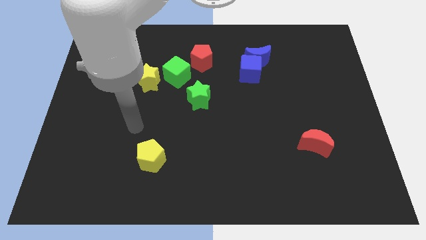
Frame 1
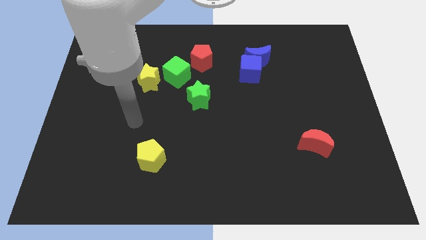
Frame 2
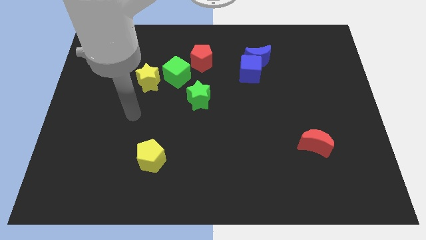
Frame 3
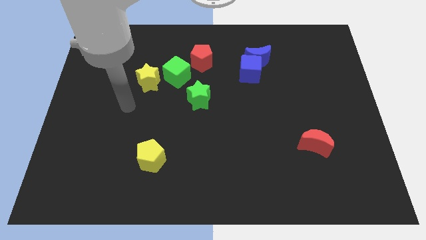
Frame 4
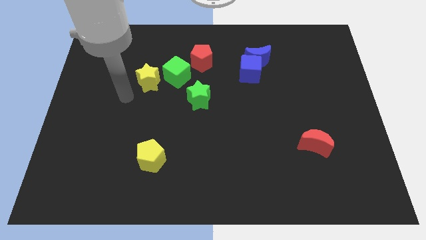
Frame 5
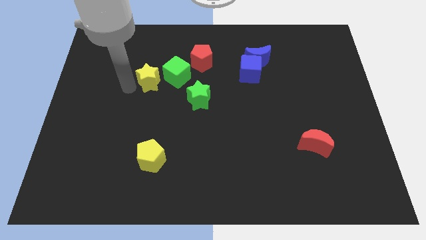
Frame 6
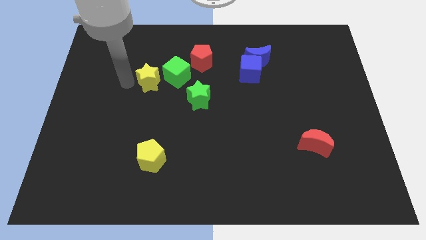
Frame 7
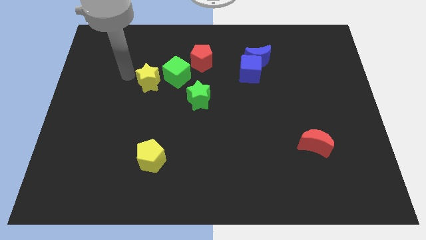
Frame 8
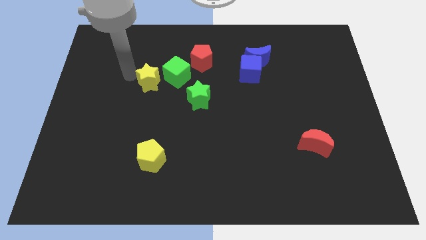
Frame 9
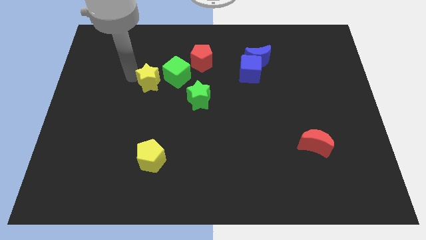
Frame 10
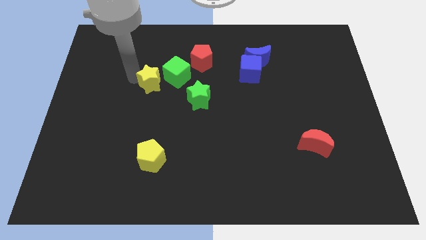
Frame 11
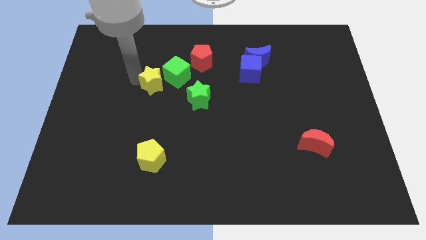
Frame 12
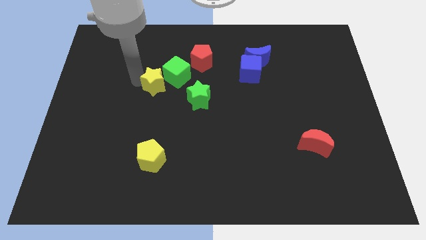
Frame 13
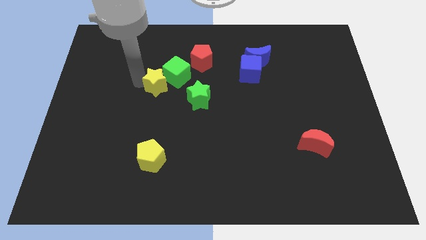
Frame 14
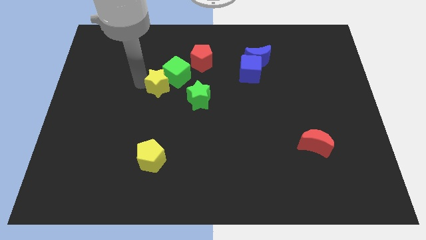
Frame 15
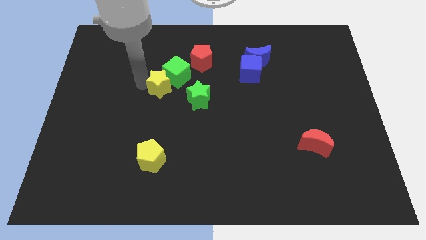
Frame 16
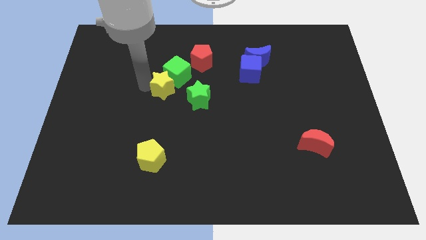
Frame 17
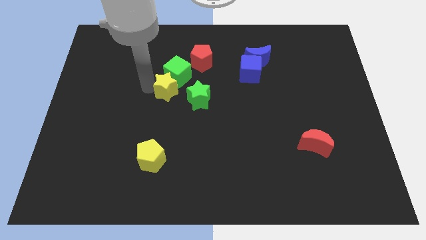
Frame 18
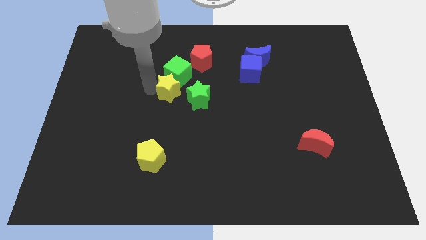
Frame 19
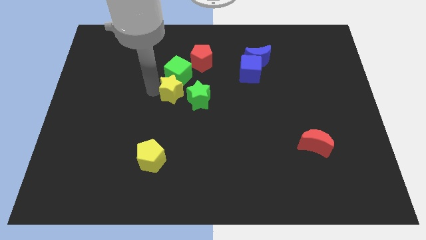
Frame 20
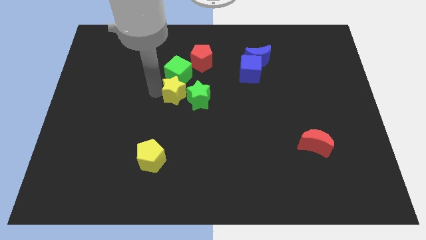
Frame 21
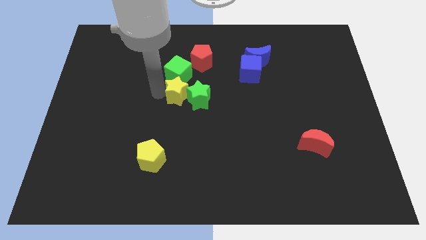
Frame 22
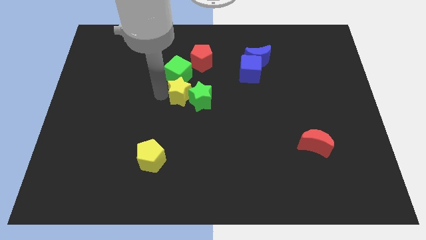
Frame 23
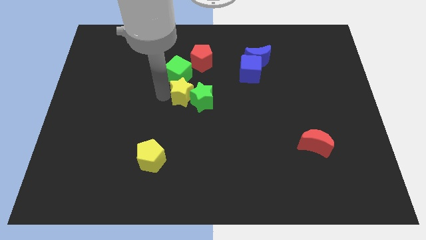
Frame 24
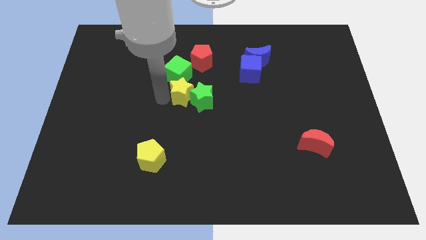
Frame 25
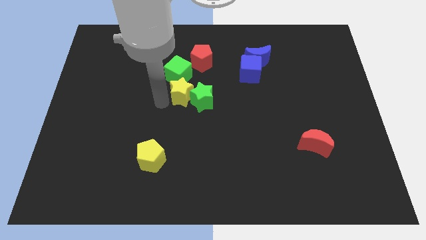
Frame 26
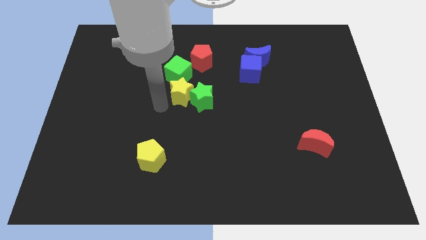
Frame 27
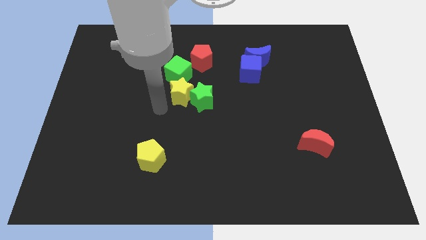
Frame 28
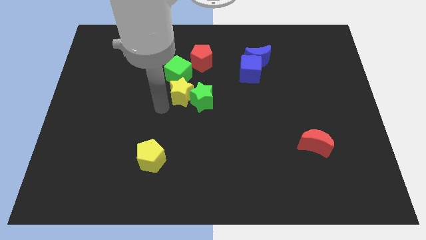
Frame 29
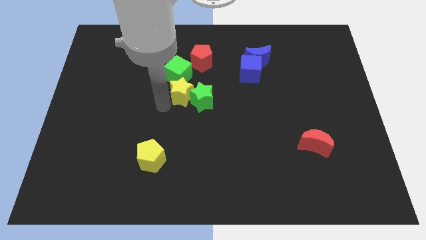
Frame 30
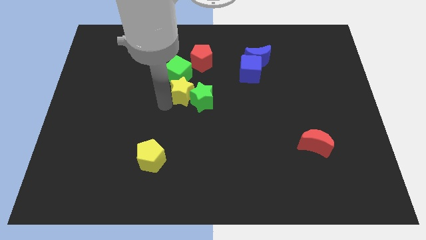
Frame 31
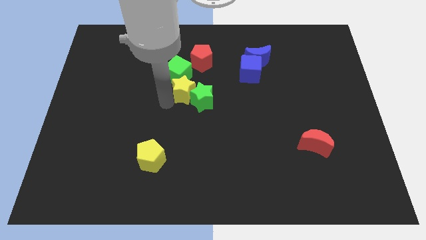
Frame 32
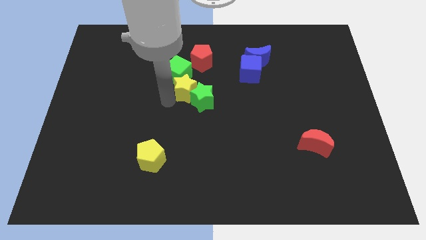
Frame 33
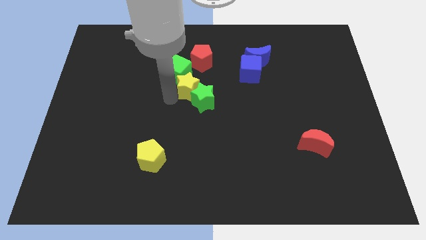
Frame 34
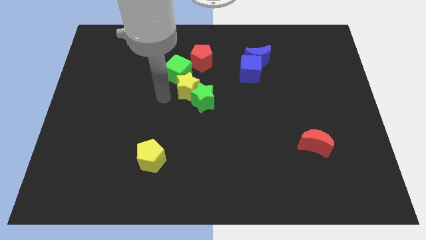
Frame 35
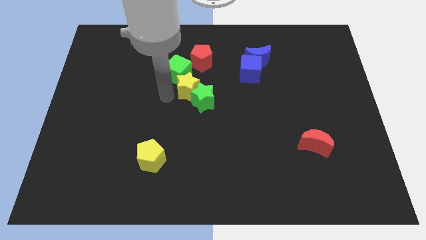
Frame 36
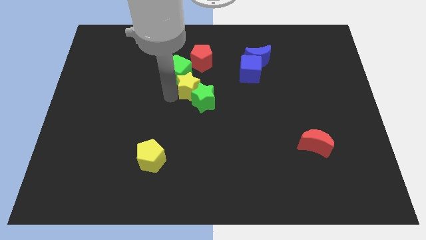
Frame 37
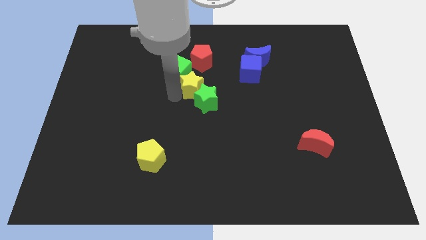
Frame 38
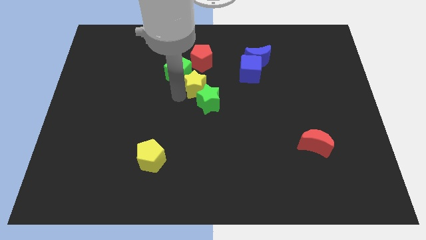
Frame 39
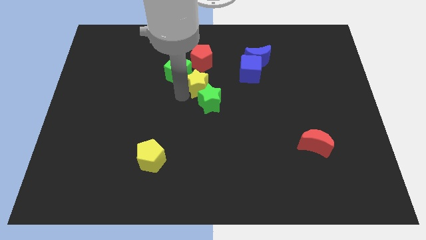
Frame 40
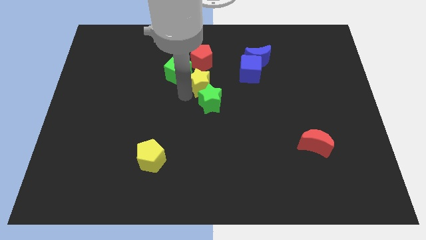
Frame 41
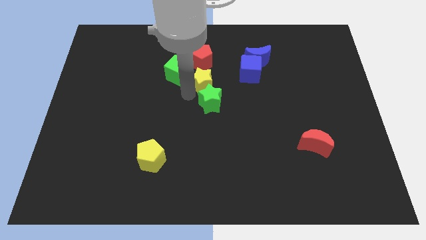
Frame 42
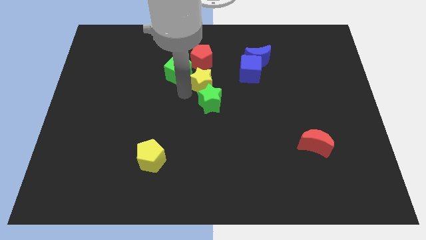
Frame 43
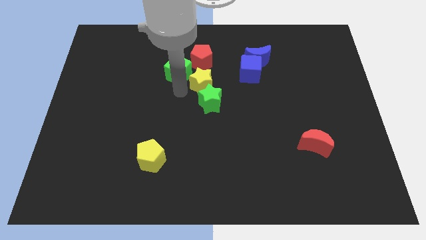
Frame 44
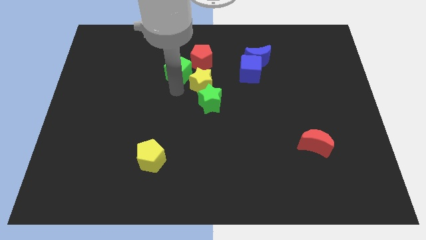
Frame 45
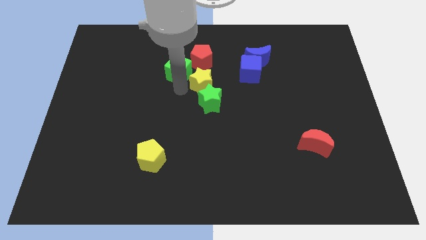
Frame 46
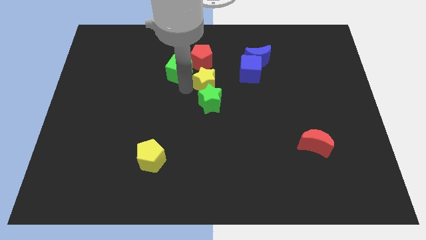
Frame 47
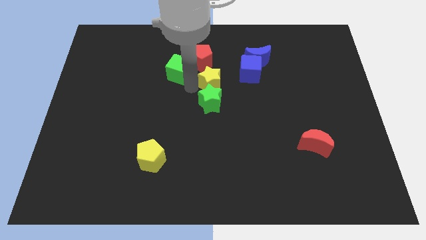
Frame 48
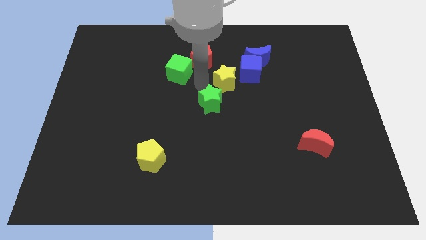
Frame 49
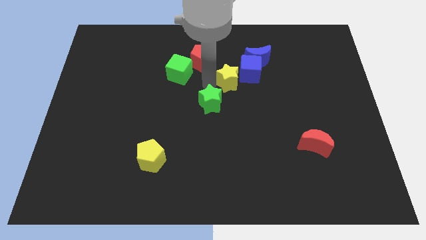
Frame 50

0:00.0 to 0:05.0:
put the yellow star next to the blue cube

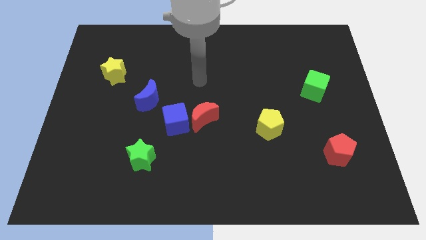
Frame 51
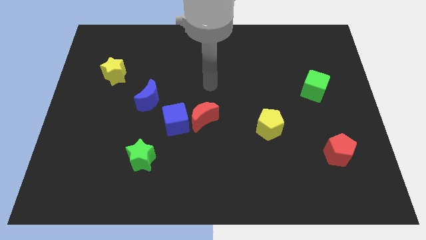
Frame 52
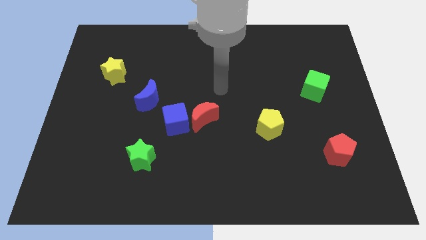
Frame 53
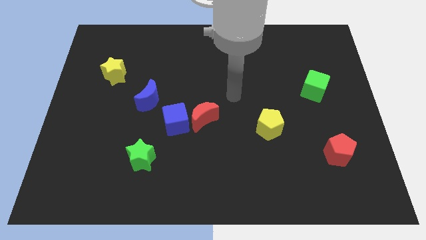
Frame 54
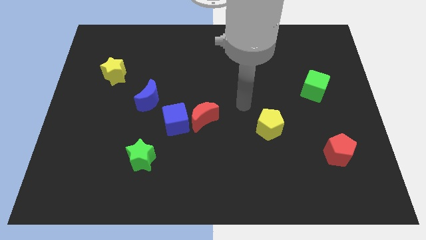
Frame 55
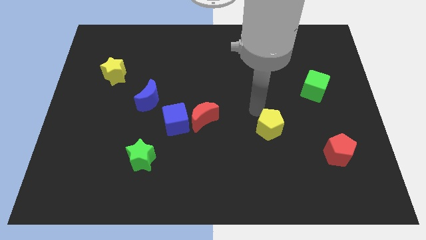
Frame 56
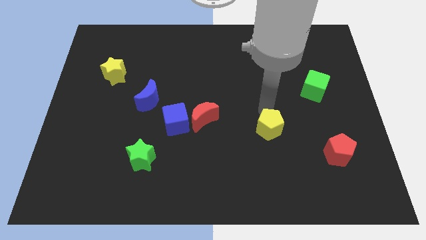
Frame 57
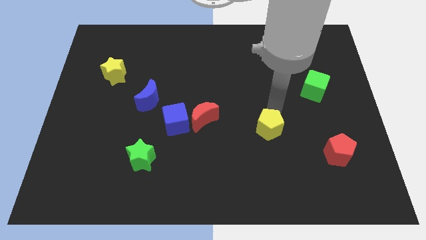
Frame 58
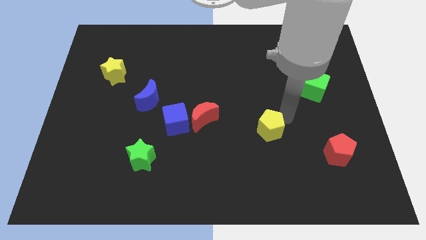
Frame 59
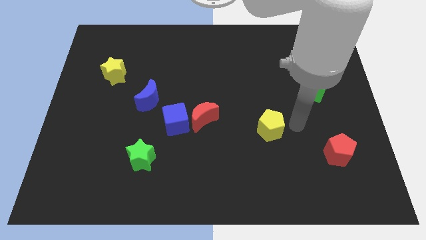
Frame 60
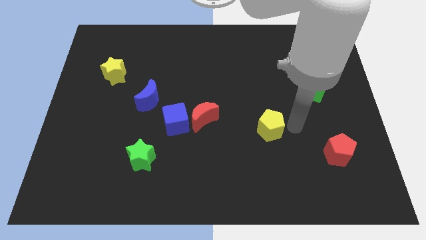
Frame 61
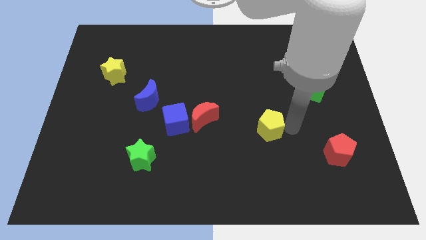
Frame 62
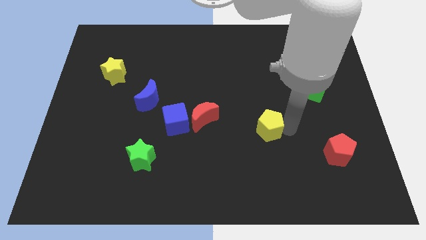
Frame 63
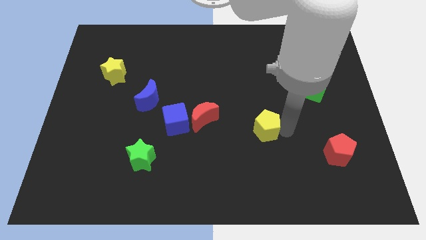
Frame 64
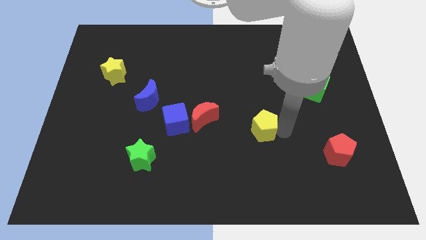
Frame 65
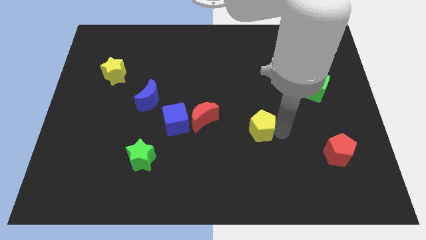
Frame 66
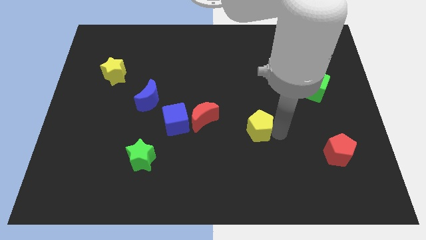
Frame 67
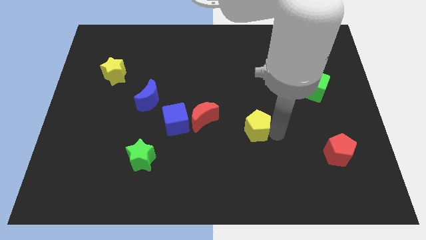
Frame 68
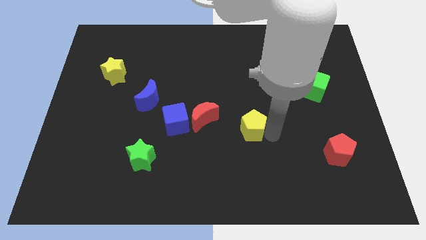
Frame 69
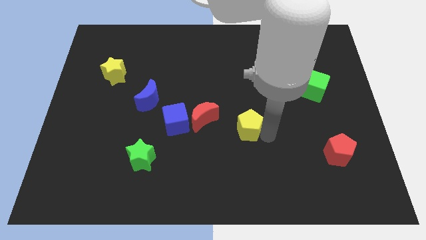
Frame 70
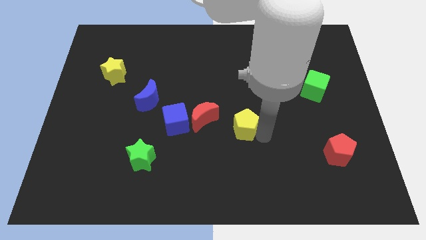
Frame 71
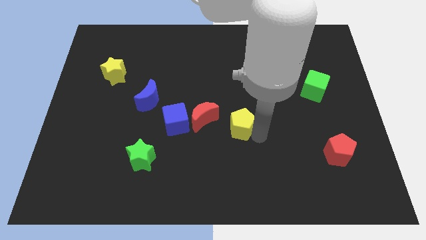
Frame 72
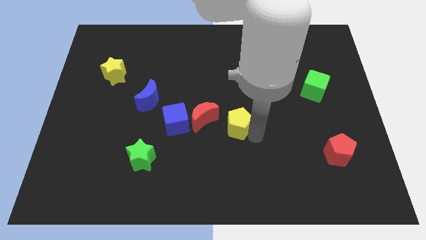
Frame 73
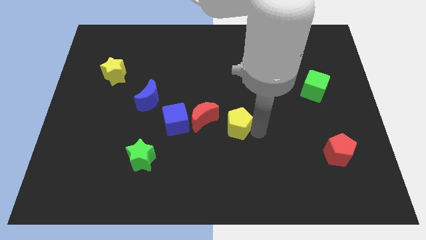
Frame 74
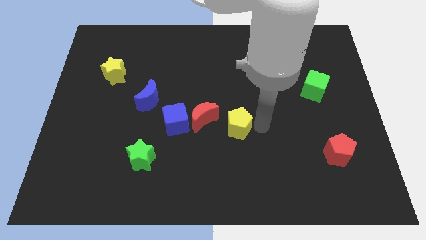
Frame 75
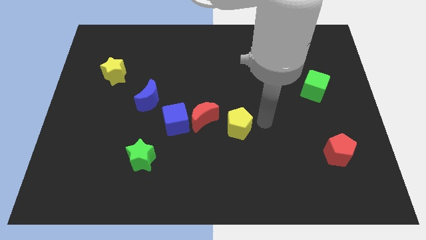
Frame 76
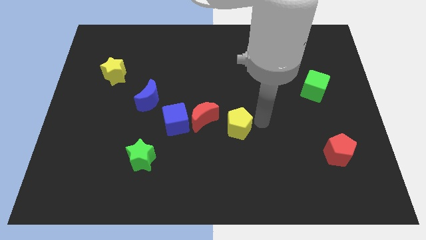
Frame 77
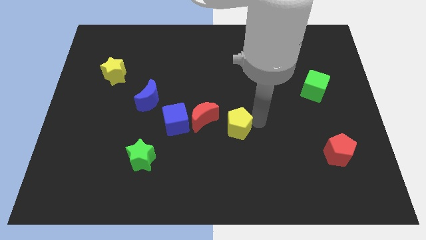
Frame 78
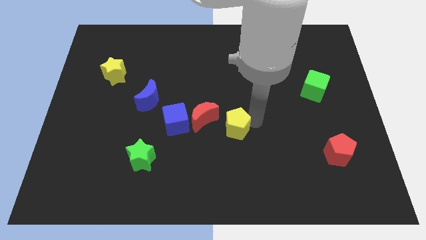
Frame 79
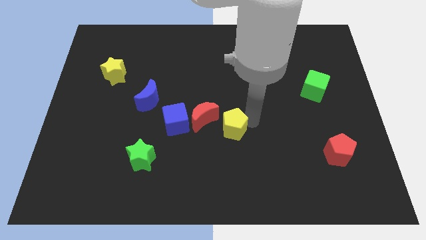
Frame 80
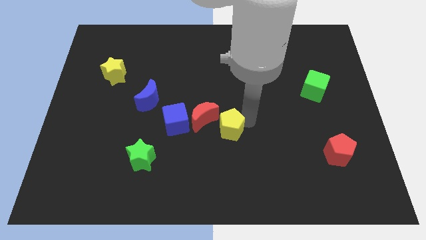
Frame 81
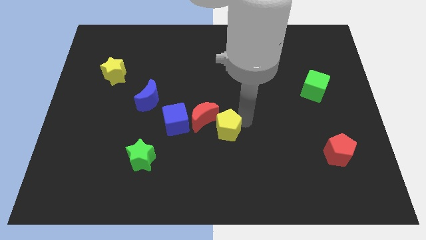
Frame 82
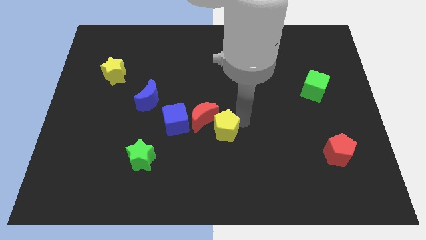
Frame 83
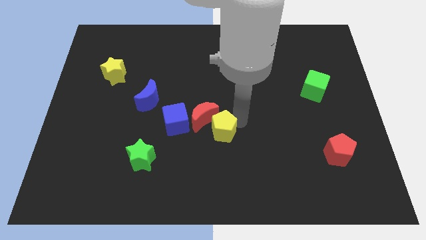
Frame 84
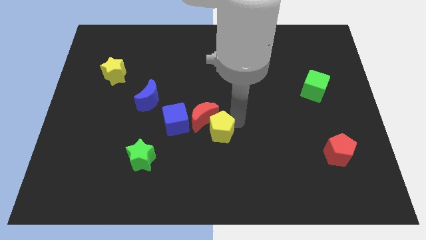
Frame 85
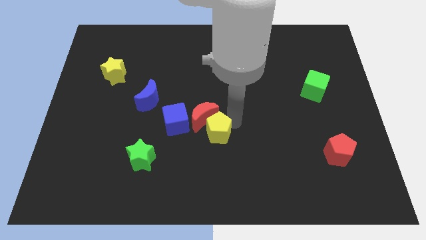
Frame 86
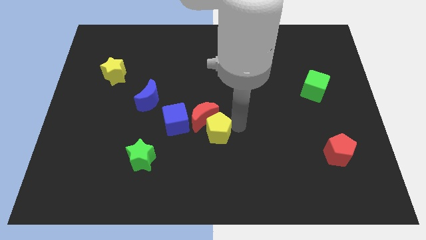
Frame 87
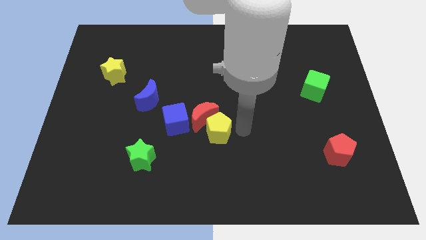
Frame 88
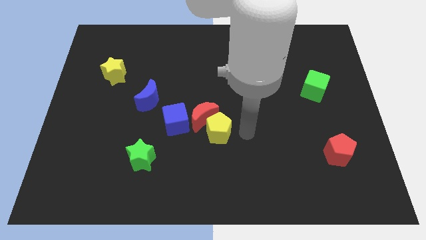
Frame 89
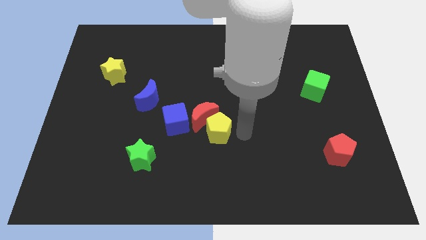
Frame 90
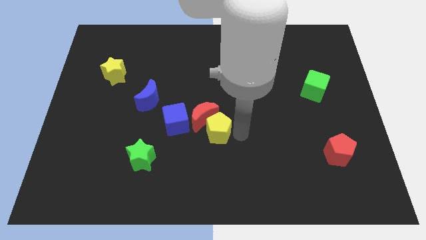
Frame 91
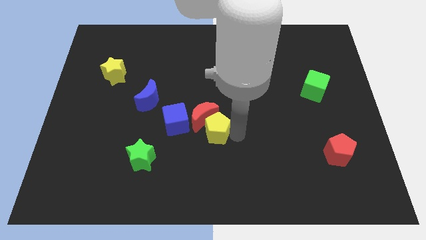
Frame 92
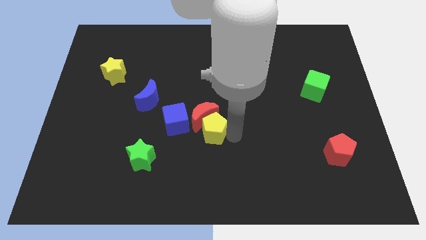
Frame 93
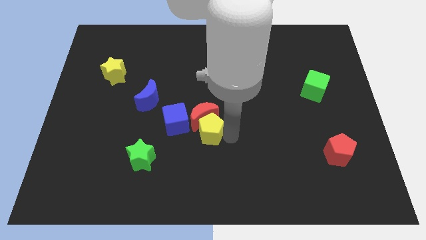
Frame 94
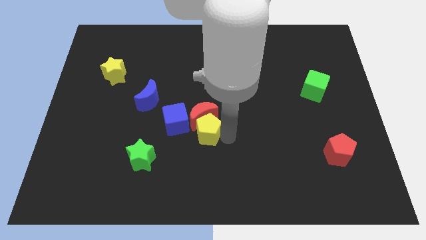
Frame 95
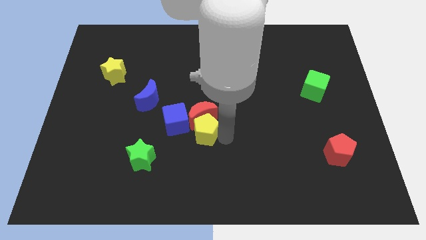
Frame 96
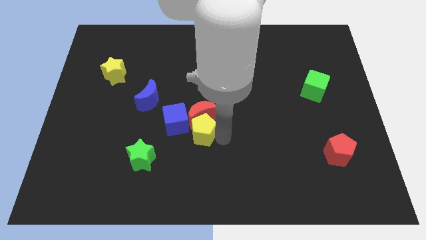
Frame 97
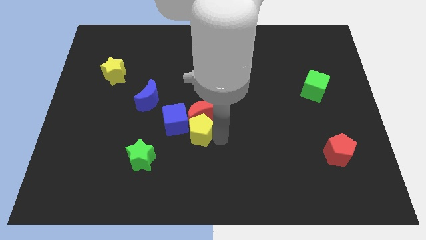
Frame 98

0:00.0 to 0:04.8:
move the yellow pentagon to the blue cube
